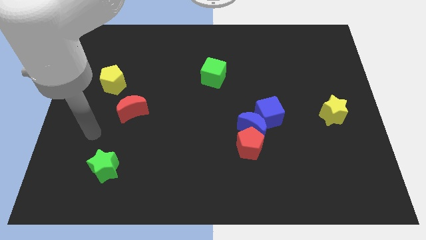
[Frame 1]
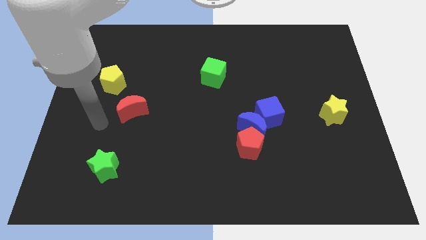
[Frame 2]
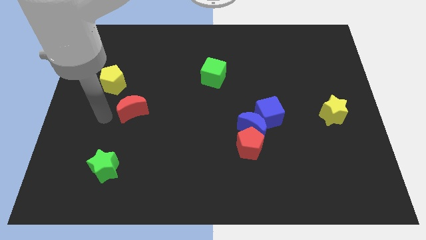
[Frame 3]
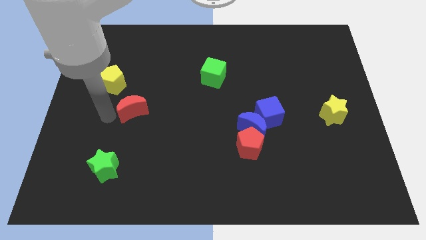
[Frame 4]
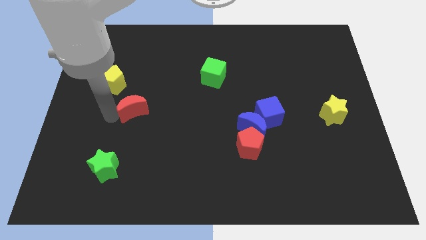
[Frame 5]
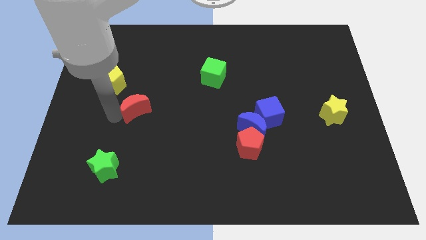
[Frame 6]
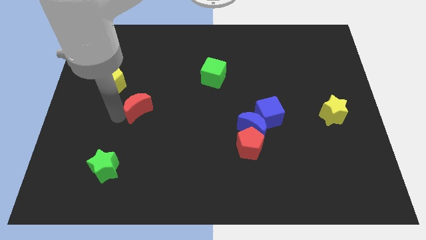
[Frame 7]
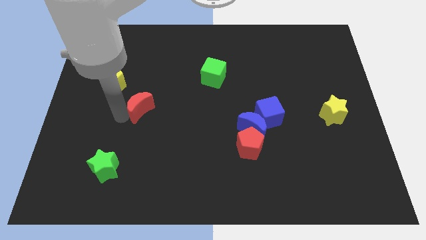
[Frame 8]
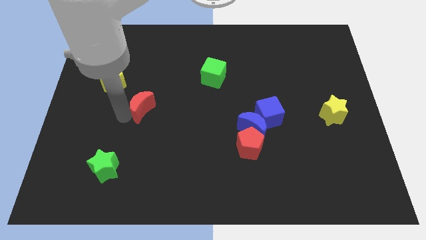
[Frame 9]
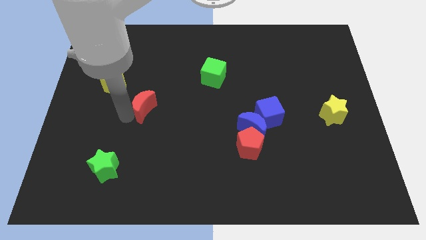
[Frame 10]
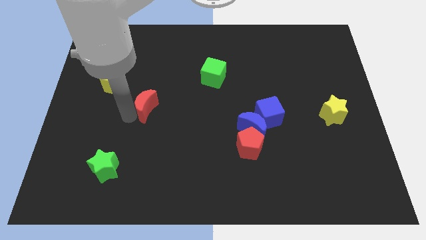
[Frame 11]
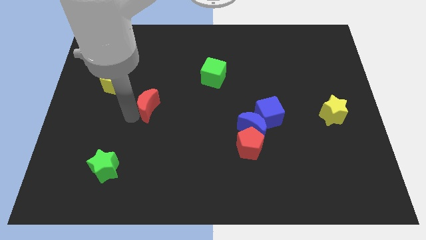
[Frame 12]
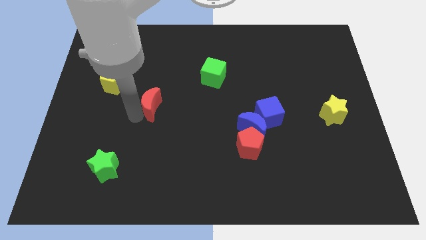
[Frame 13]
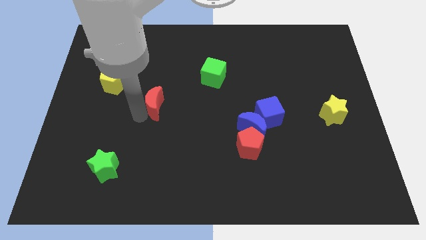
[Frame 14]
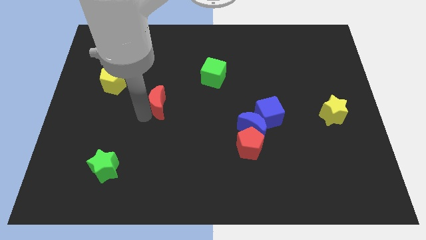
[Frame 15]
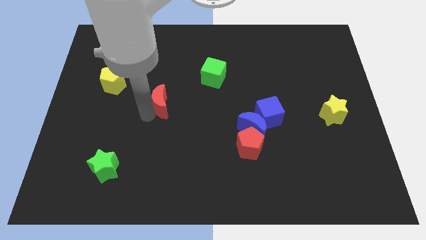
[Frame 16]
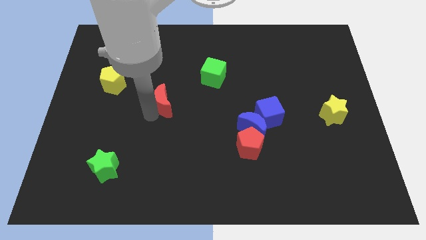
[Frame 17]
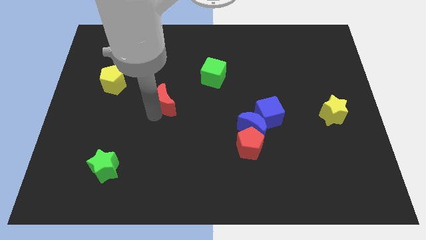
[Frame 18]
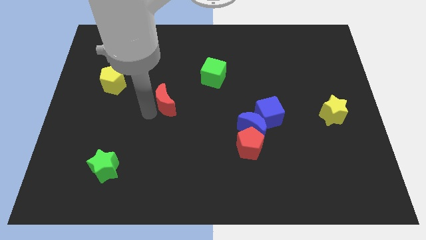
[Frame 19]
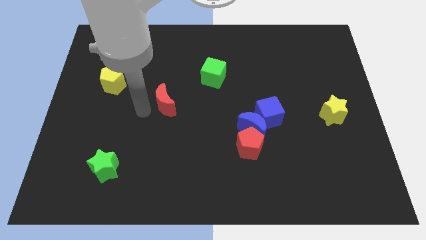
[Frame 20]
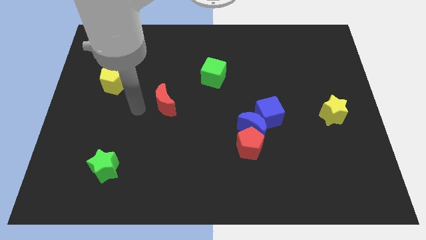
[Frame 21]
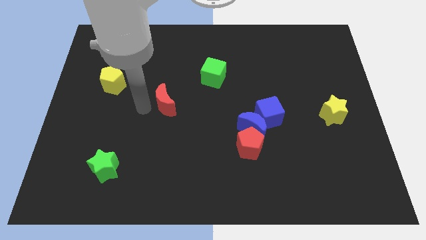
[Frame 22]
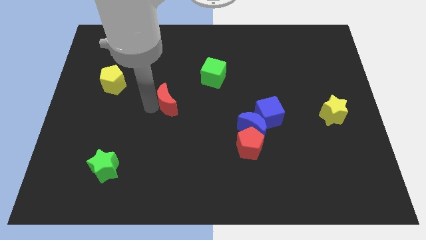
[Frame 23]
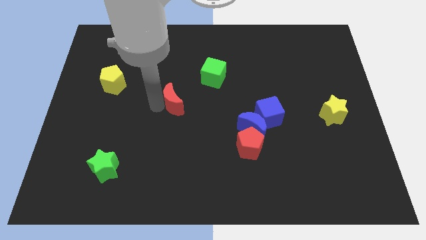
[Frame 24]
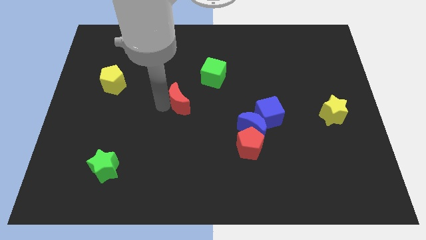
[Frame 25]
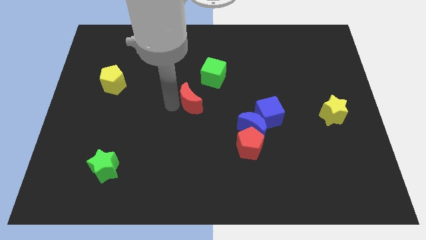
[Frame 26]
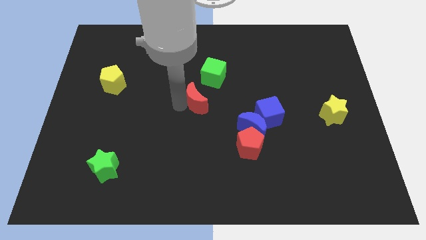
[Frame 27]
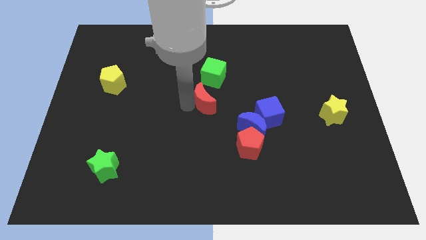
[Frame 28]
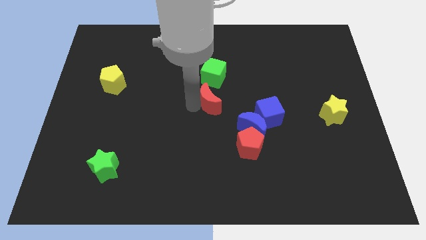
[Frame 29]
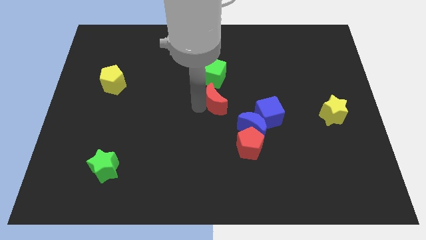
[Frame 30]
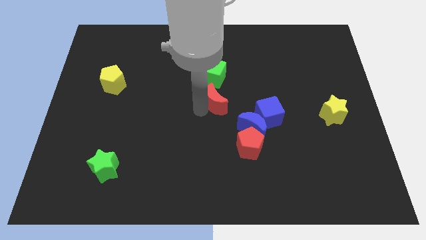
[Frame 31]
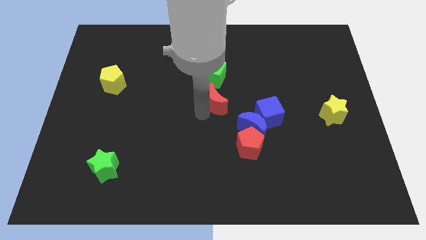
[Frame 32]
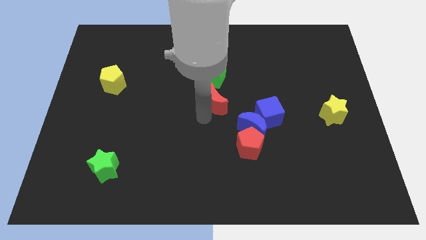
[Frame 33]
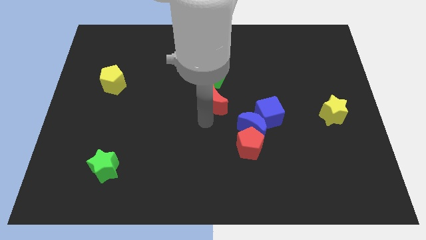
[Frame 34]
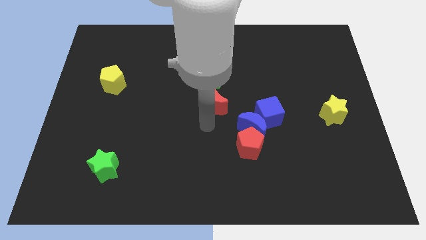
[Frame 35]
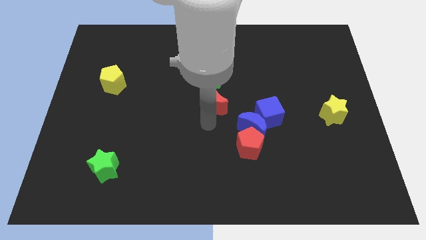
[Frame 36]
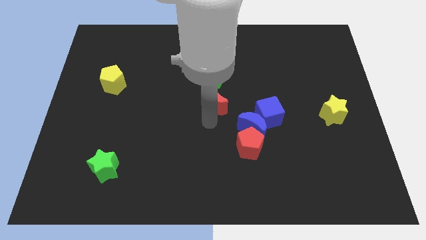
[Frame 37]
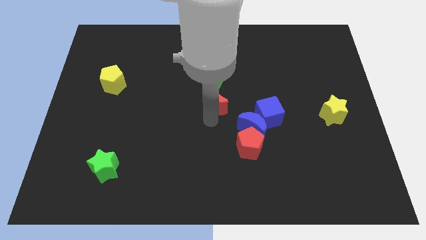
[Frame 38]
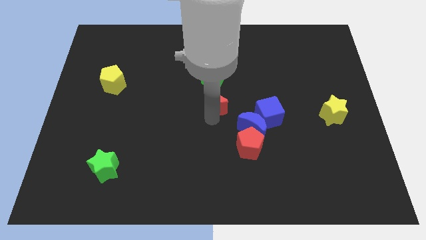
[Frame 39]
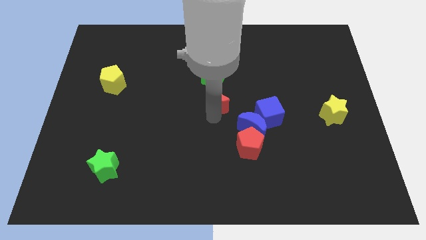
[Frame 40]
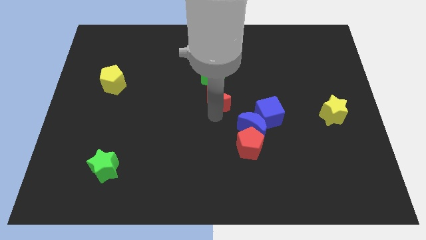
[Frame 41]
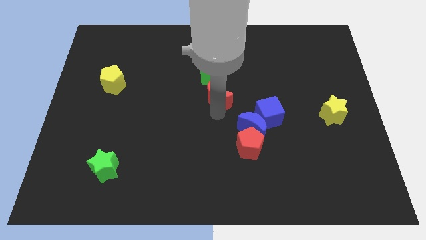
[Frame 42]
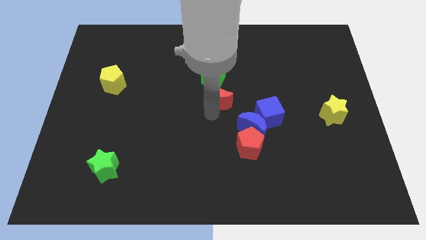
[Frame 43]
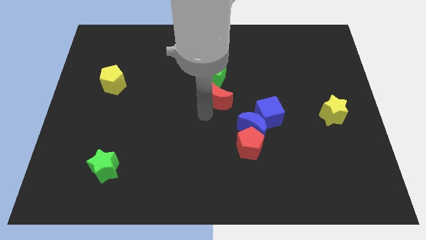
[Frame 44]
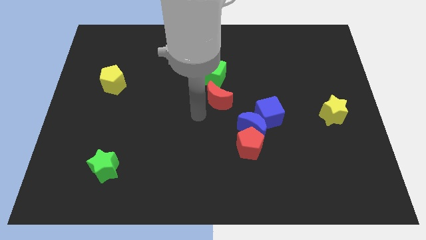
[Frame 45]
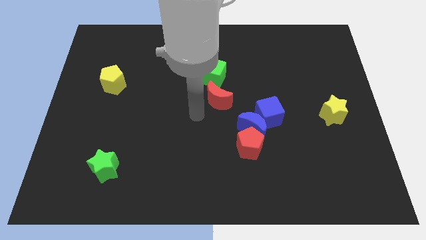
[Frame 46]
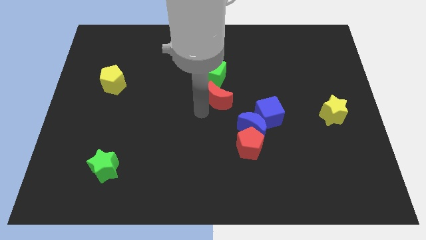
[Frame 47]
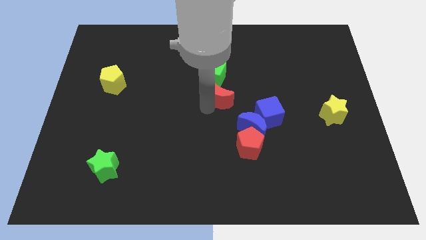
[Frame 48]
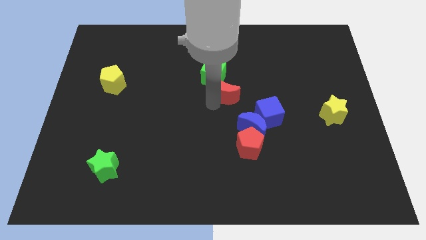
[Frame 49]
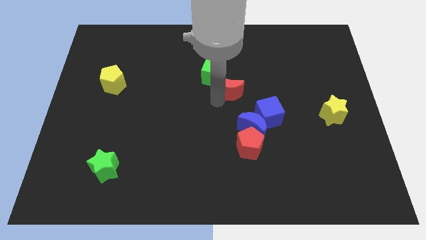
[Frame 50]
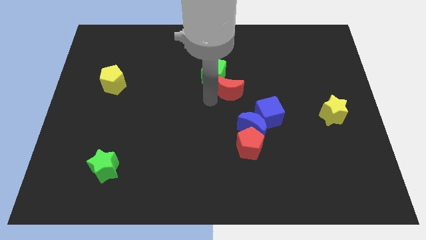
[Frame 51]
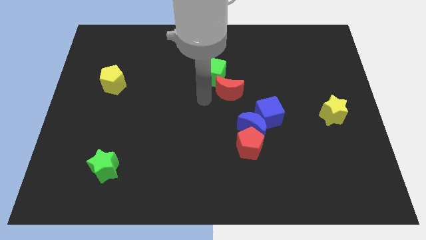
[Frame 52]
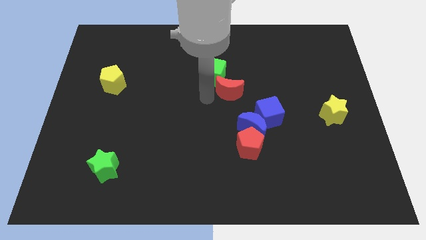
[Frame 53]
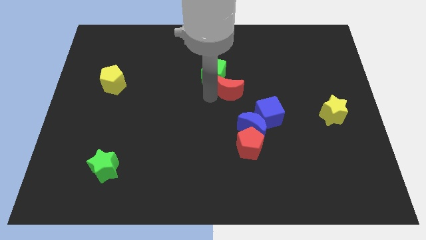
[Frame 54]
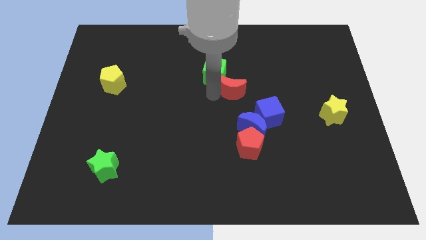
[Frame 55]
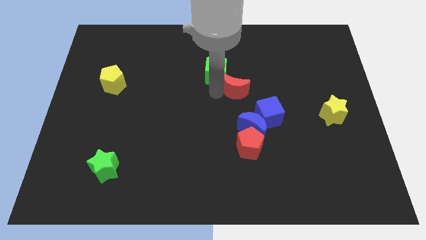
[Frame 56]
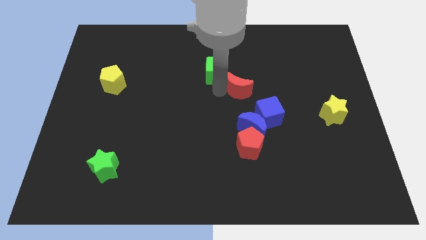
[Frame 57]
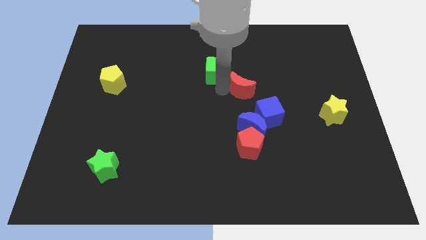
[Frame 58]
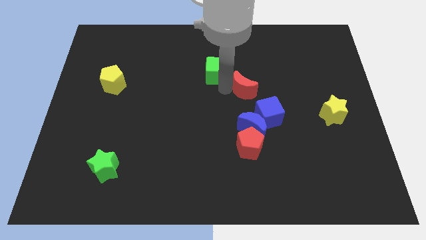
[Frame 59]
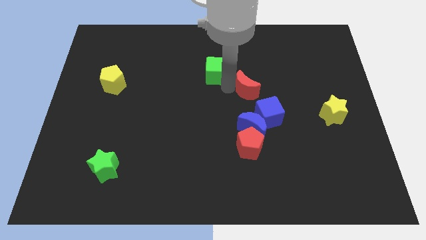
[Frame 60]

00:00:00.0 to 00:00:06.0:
slide the red moon above the blue cube

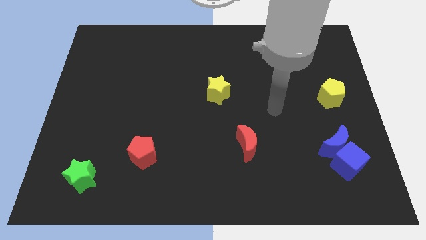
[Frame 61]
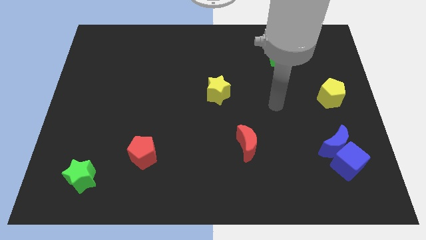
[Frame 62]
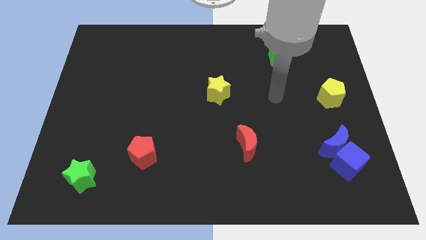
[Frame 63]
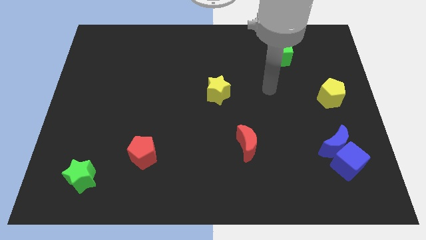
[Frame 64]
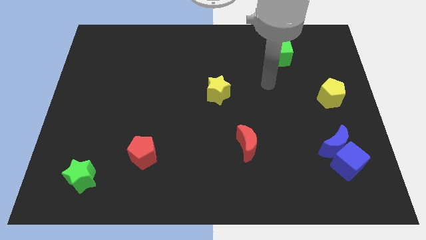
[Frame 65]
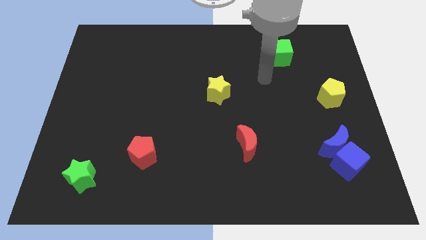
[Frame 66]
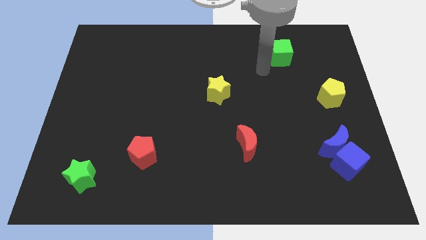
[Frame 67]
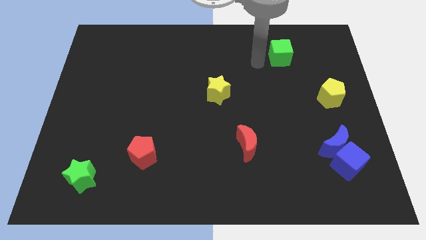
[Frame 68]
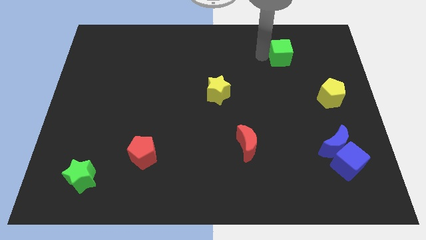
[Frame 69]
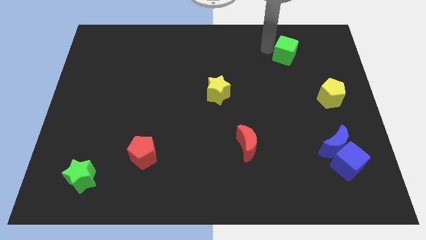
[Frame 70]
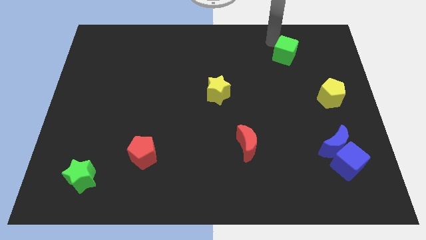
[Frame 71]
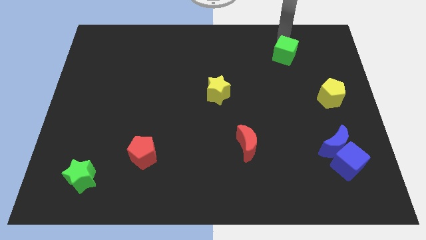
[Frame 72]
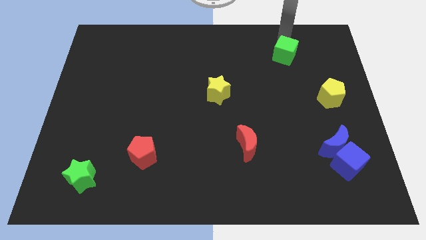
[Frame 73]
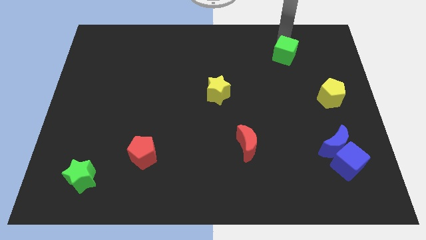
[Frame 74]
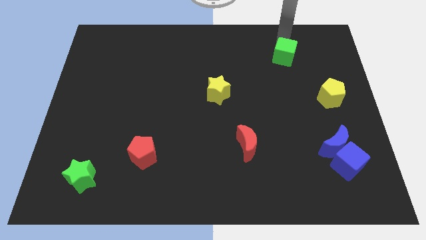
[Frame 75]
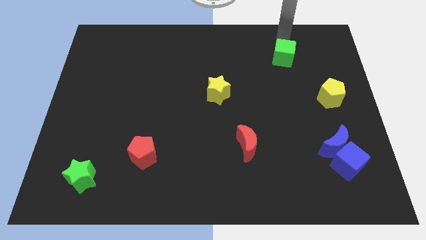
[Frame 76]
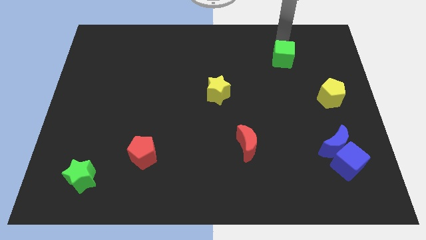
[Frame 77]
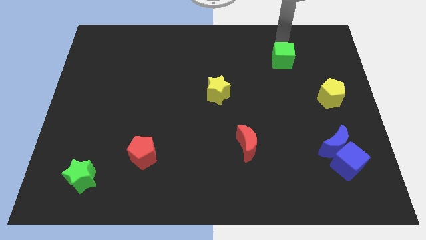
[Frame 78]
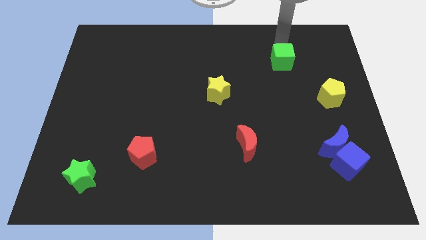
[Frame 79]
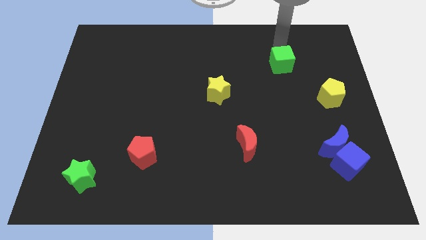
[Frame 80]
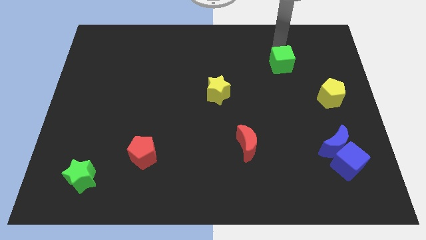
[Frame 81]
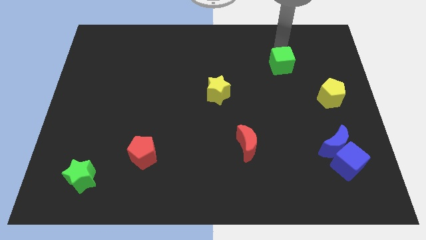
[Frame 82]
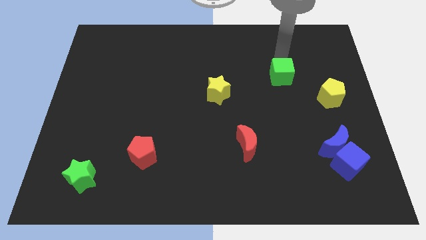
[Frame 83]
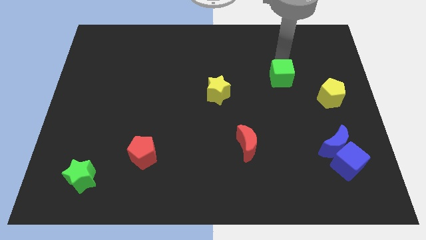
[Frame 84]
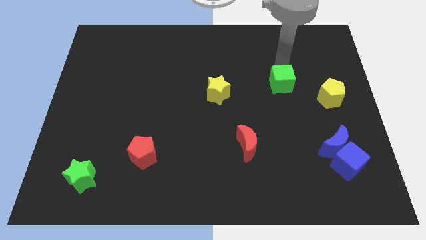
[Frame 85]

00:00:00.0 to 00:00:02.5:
slide the green cube to the left of the yellow pentagon
